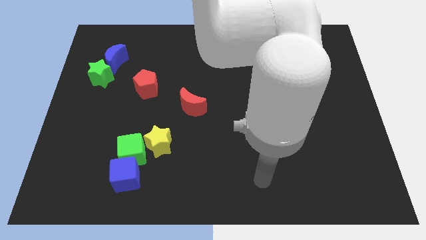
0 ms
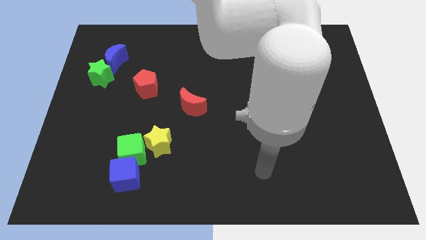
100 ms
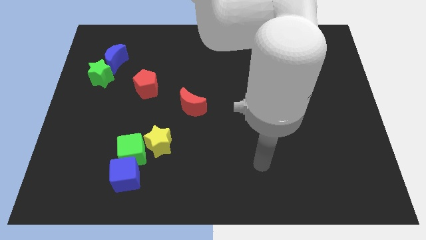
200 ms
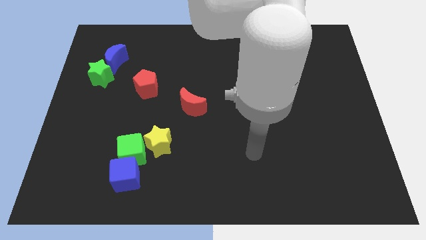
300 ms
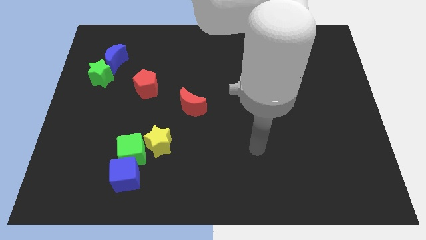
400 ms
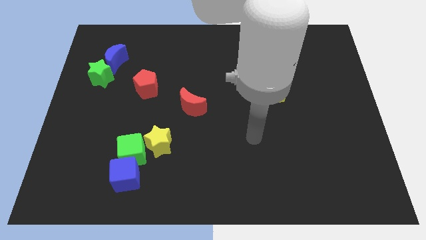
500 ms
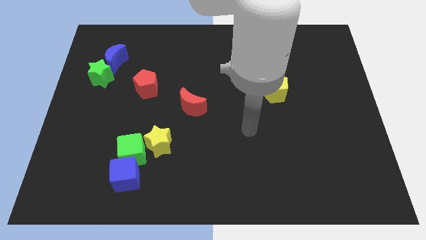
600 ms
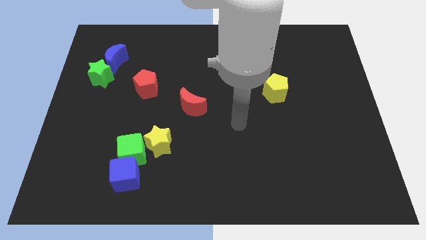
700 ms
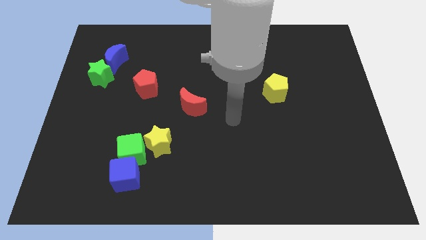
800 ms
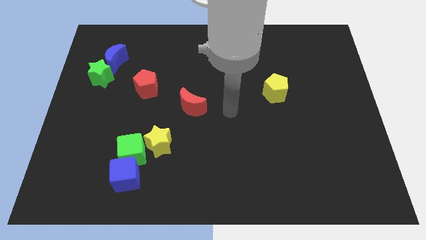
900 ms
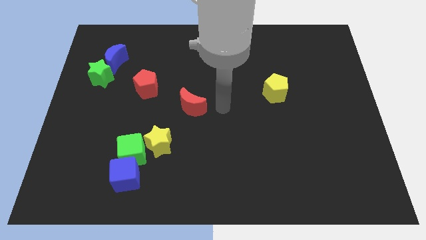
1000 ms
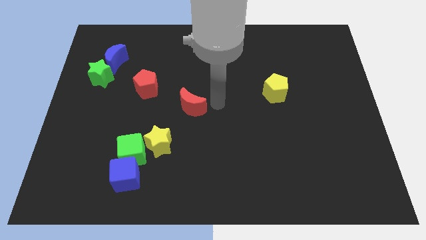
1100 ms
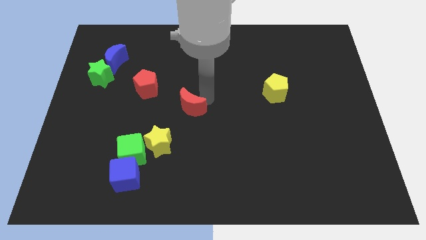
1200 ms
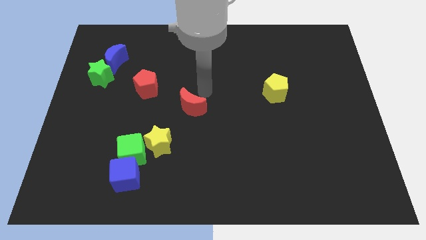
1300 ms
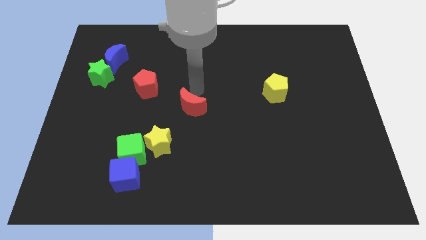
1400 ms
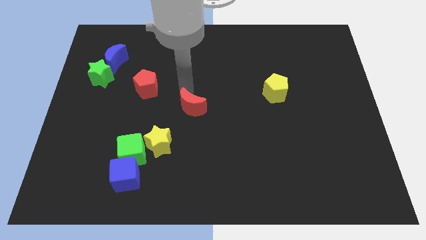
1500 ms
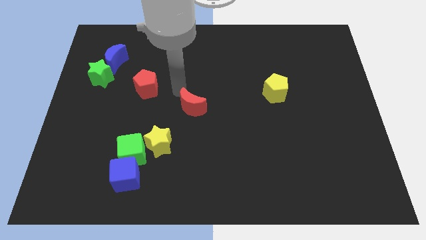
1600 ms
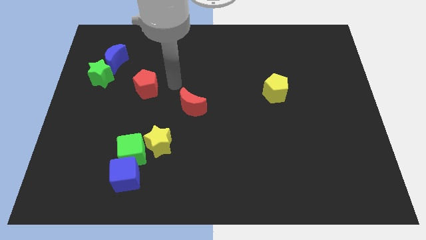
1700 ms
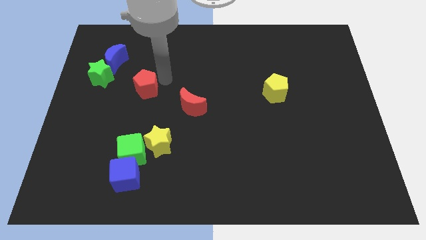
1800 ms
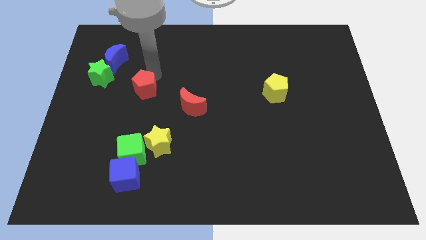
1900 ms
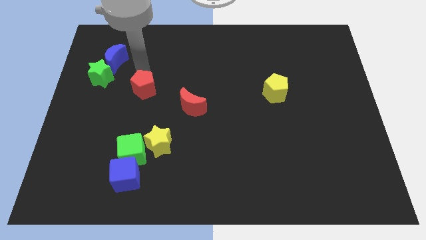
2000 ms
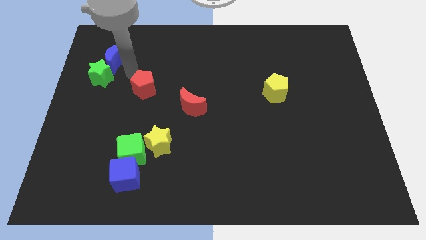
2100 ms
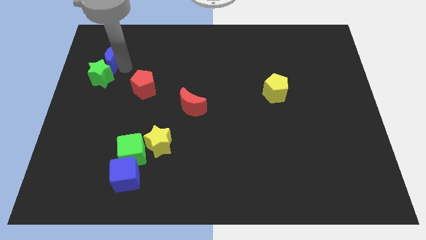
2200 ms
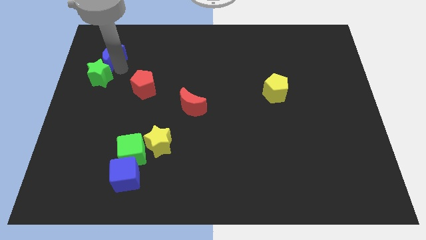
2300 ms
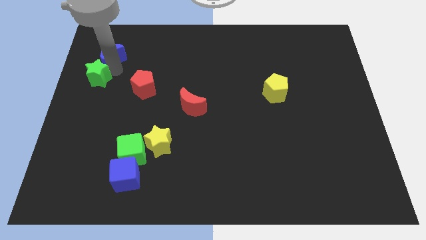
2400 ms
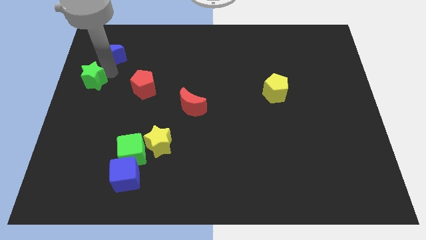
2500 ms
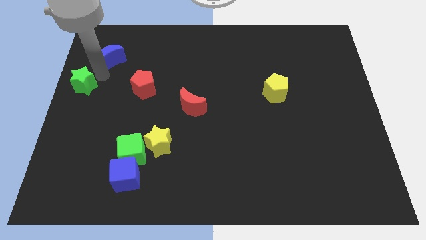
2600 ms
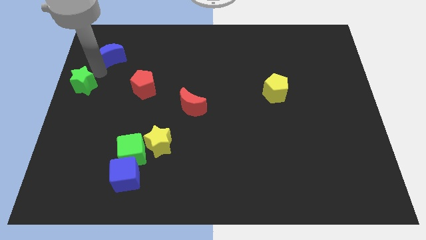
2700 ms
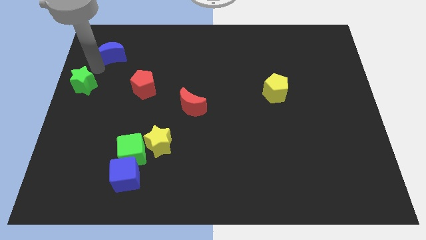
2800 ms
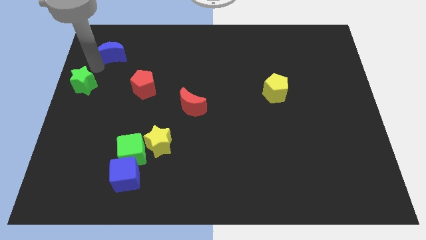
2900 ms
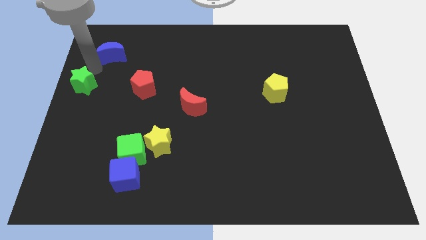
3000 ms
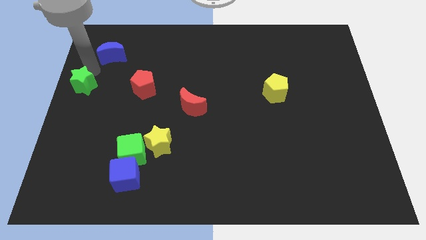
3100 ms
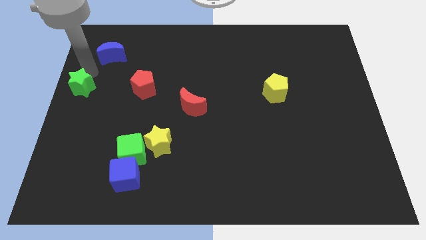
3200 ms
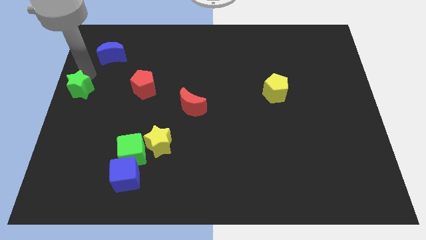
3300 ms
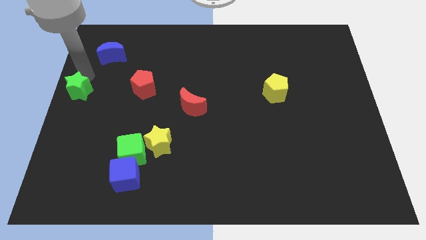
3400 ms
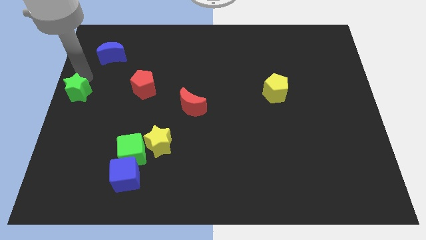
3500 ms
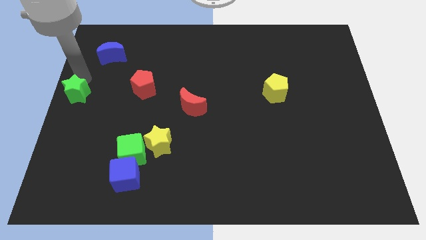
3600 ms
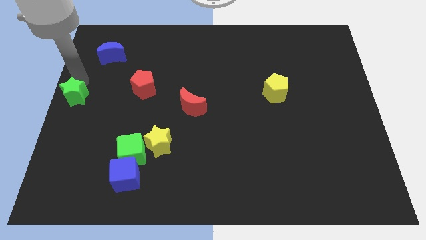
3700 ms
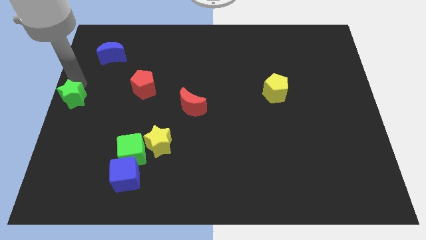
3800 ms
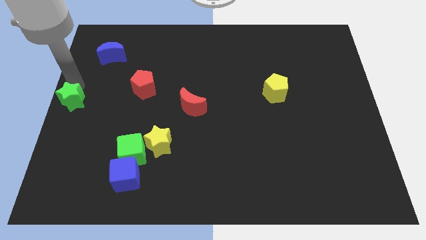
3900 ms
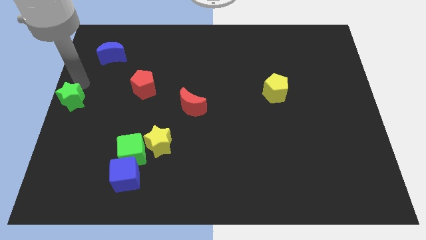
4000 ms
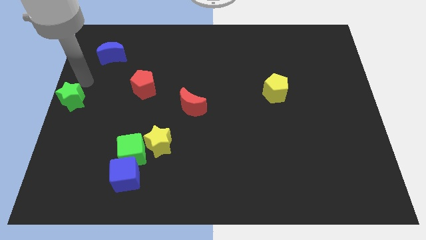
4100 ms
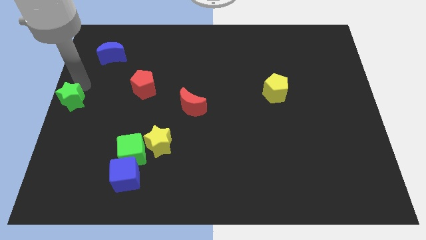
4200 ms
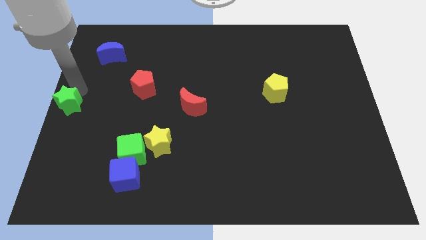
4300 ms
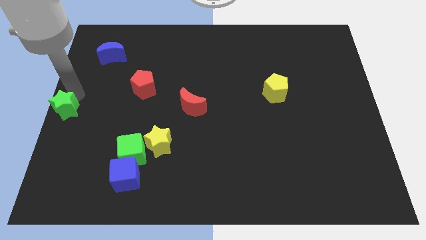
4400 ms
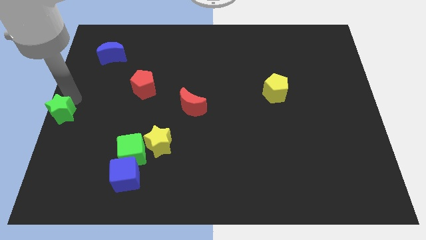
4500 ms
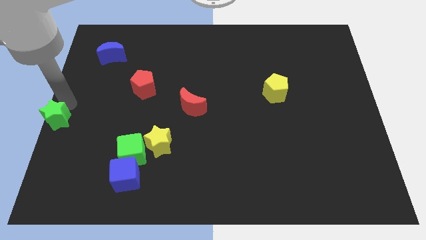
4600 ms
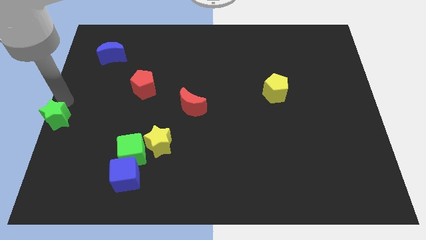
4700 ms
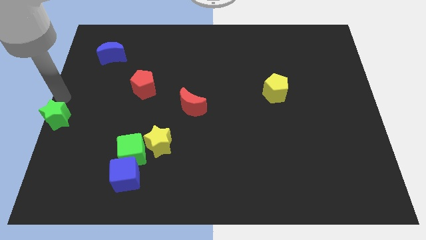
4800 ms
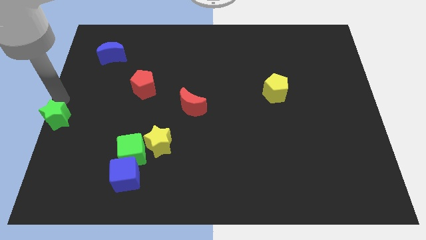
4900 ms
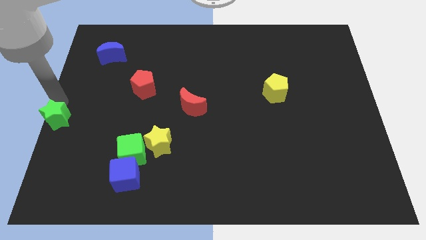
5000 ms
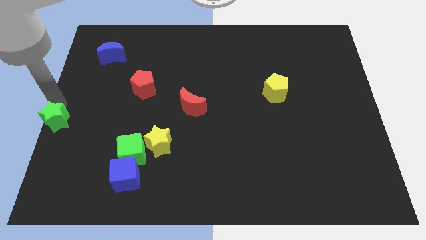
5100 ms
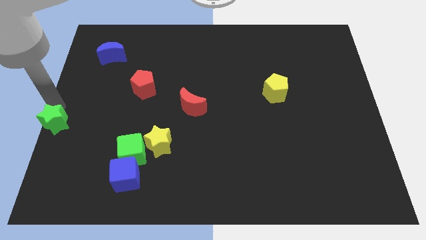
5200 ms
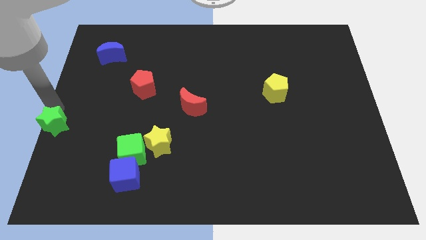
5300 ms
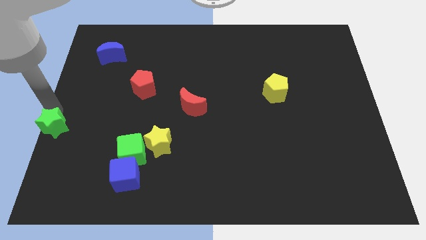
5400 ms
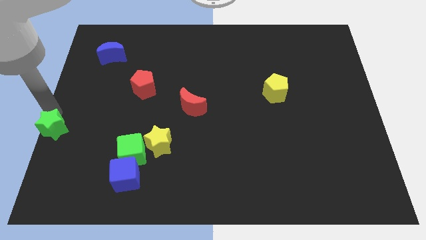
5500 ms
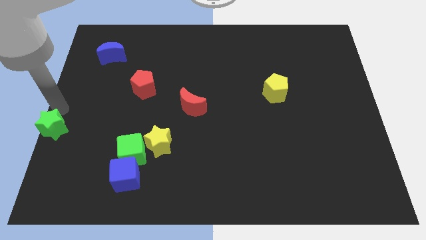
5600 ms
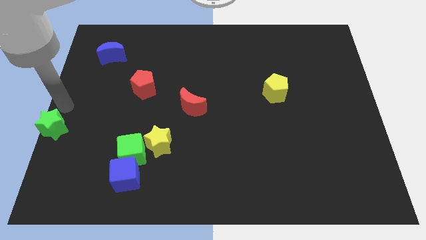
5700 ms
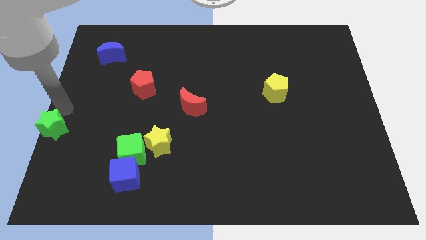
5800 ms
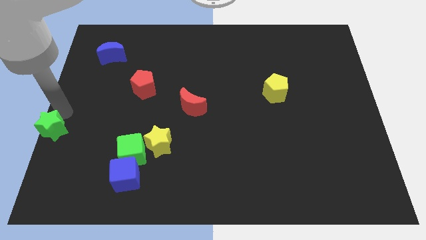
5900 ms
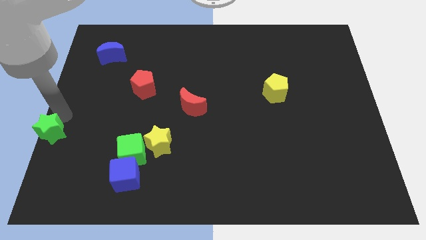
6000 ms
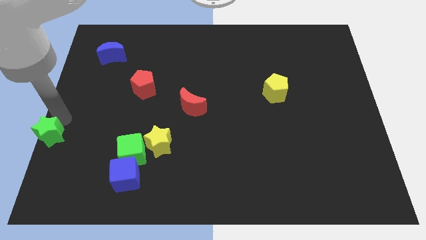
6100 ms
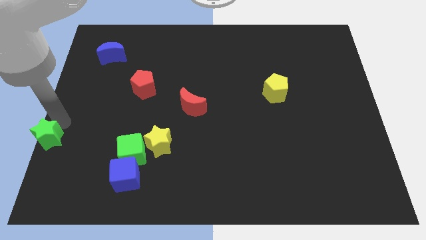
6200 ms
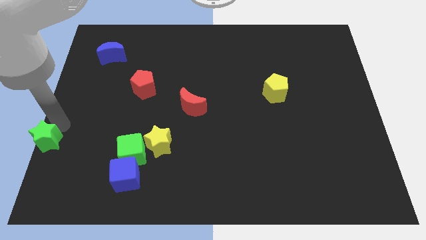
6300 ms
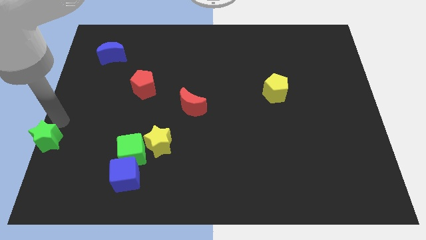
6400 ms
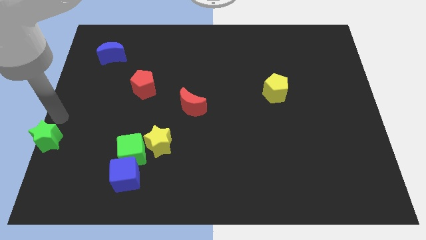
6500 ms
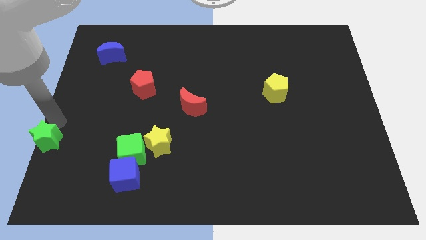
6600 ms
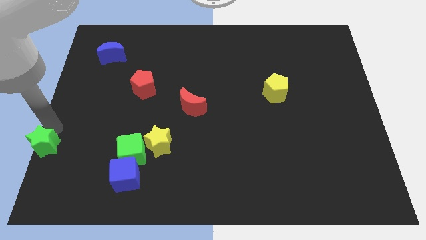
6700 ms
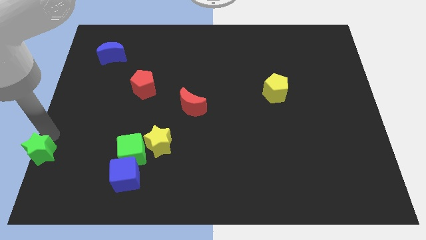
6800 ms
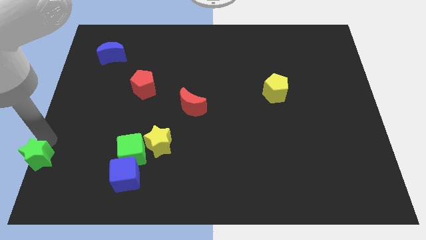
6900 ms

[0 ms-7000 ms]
move the green star to the bottom left

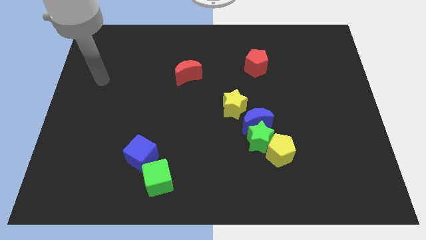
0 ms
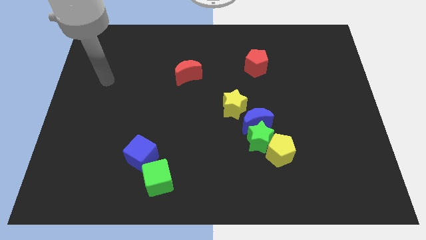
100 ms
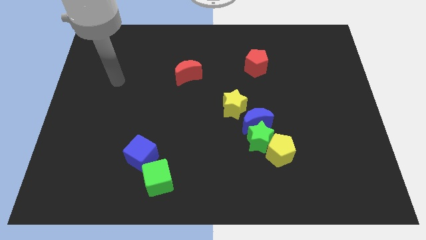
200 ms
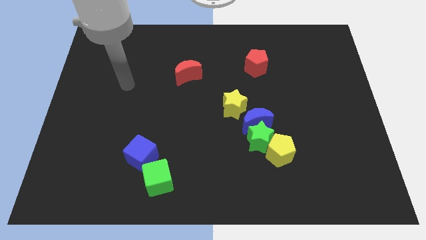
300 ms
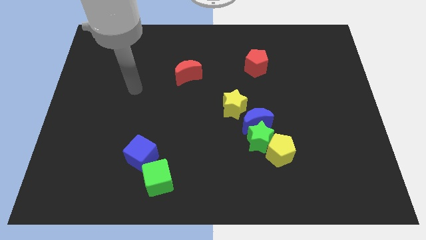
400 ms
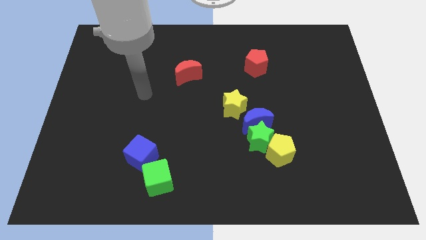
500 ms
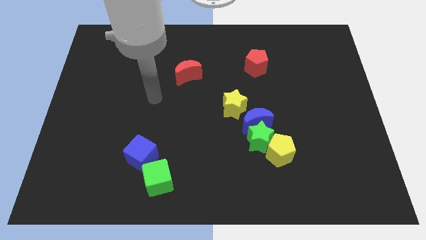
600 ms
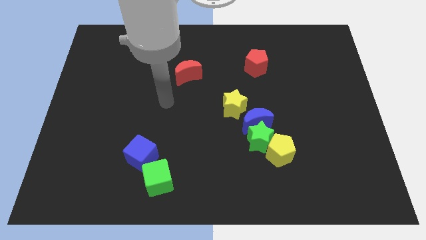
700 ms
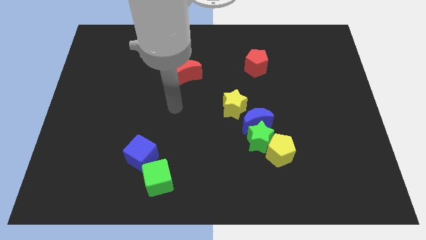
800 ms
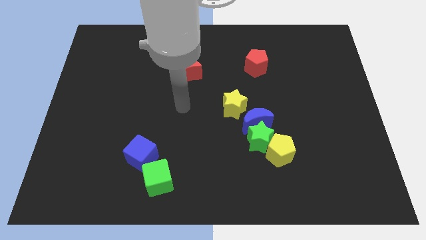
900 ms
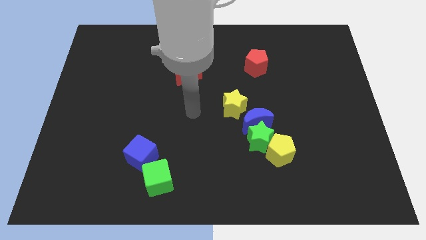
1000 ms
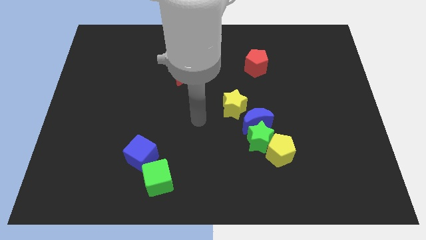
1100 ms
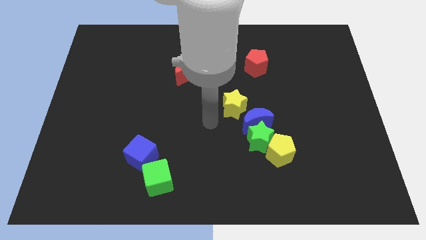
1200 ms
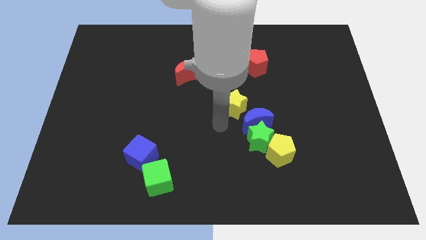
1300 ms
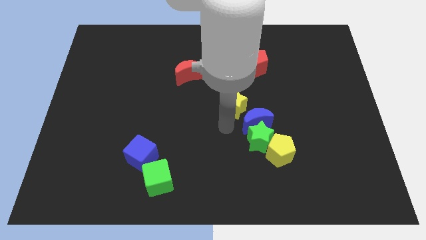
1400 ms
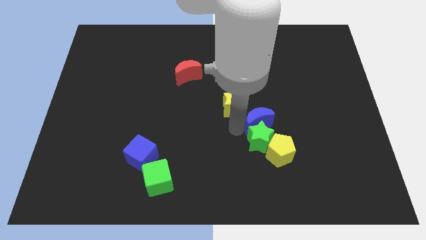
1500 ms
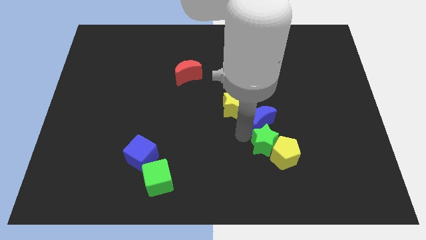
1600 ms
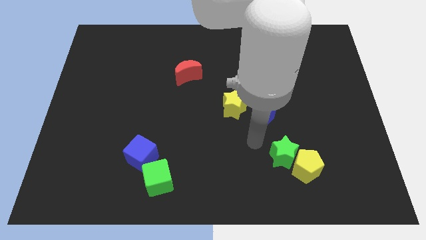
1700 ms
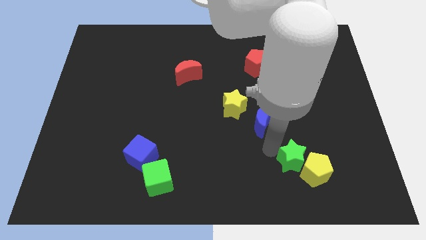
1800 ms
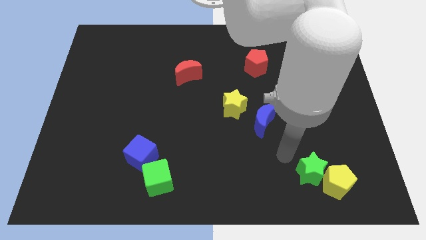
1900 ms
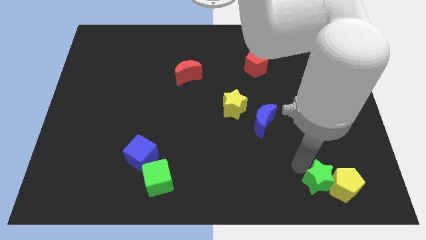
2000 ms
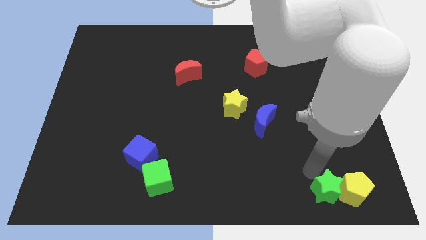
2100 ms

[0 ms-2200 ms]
slide the yellow pentagon to the lower right corner
